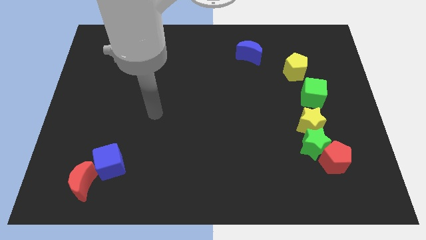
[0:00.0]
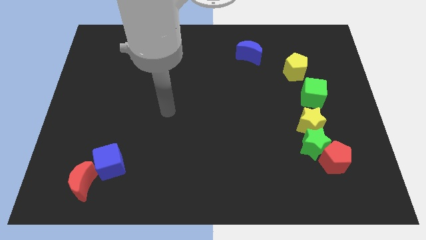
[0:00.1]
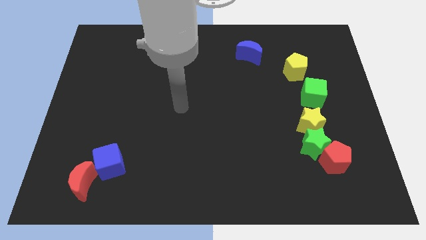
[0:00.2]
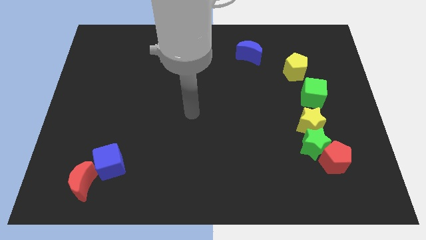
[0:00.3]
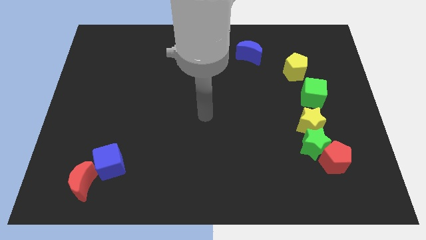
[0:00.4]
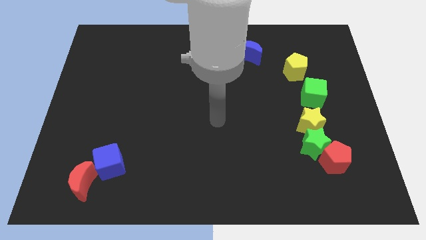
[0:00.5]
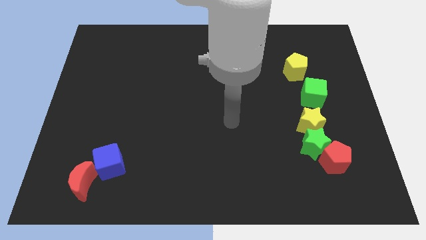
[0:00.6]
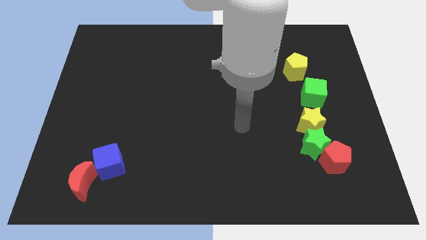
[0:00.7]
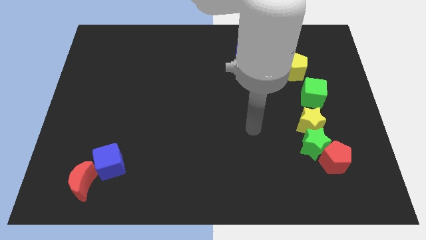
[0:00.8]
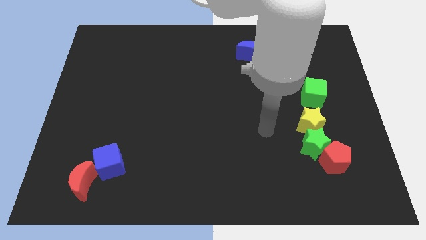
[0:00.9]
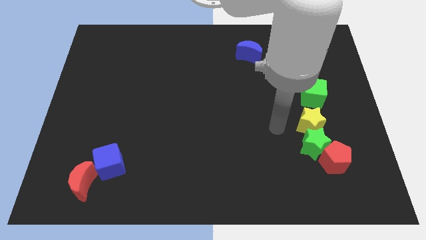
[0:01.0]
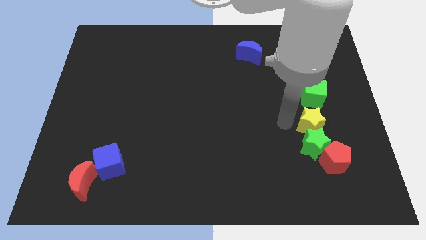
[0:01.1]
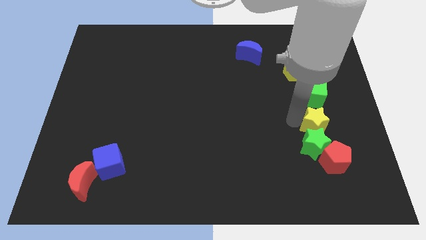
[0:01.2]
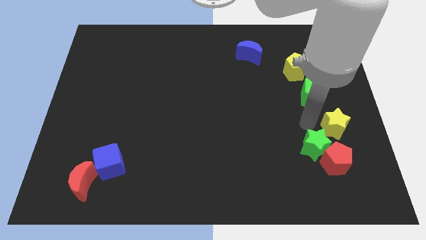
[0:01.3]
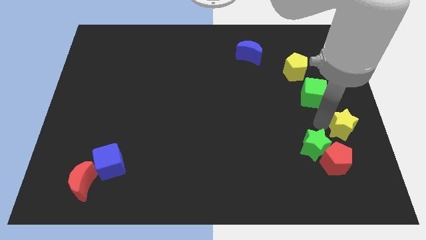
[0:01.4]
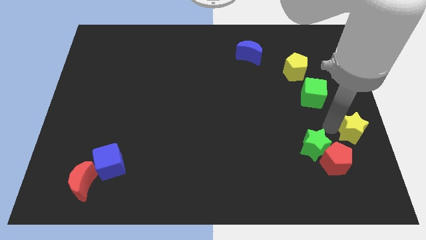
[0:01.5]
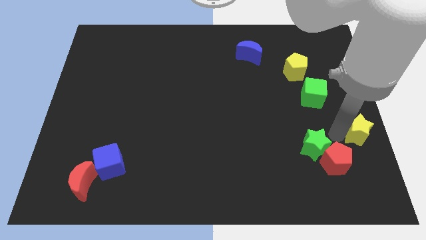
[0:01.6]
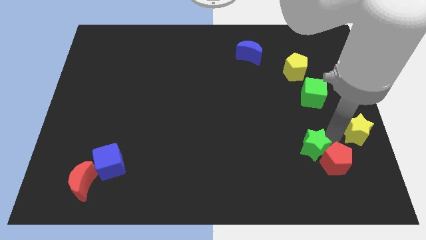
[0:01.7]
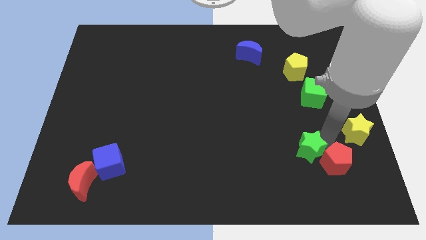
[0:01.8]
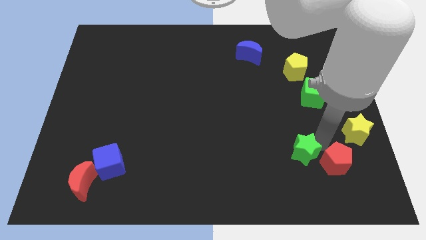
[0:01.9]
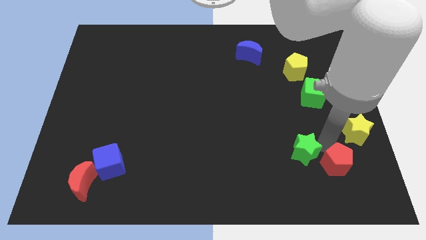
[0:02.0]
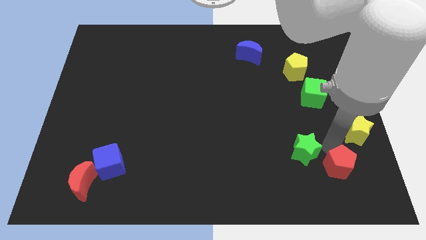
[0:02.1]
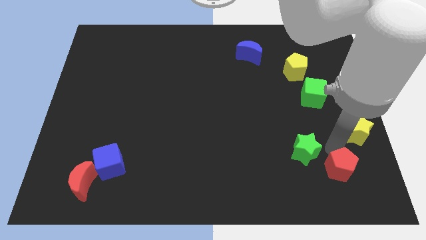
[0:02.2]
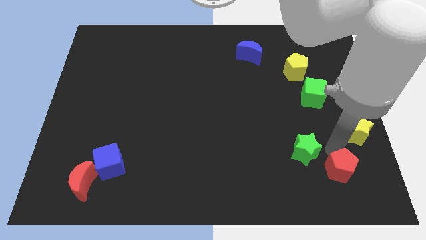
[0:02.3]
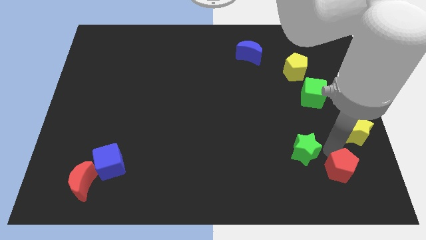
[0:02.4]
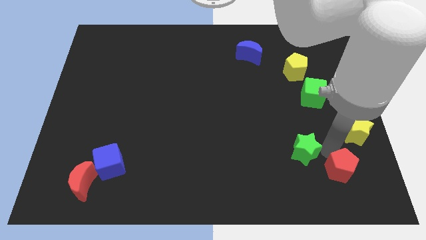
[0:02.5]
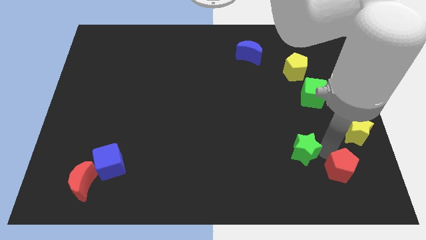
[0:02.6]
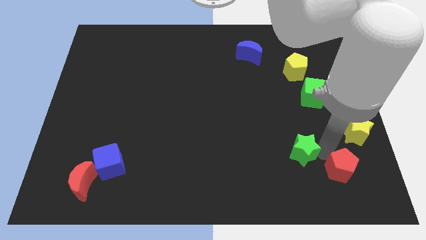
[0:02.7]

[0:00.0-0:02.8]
separate the green star from the red pentagon and yellow star

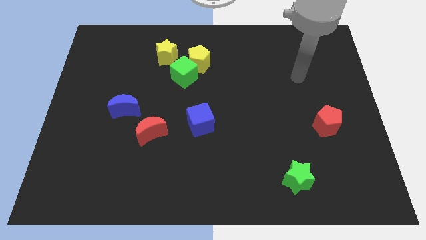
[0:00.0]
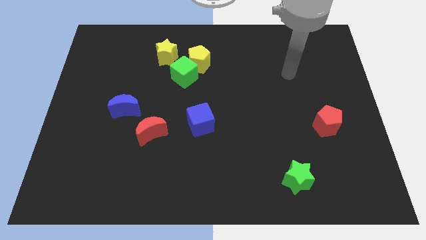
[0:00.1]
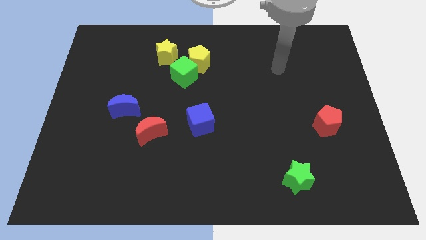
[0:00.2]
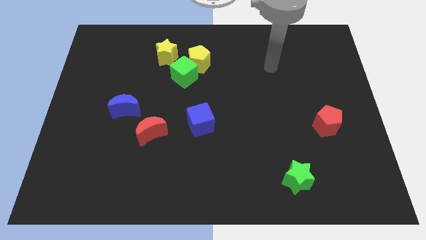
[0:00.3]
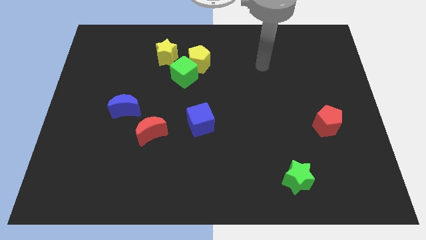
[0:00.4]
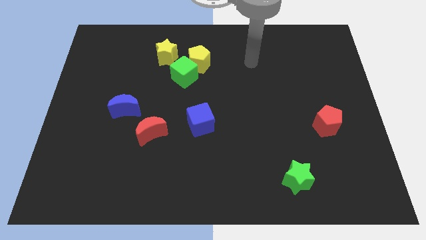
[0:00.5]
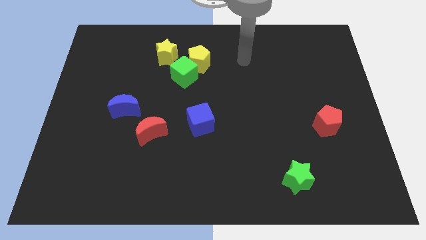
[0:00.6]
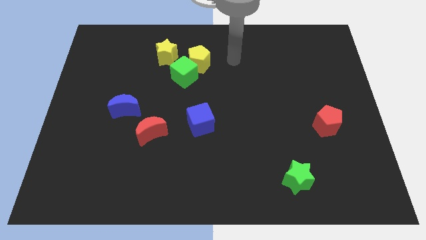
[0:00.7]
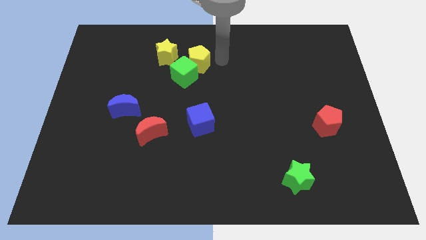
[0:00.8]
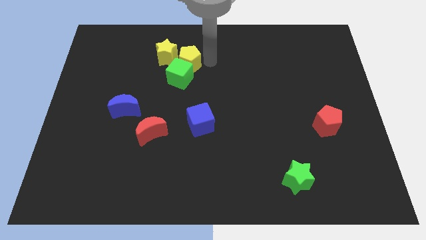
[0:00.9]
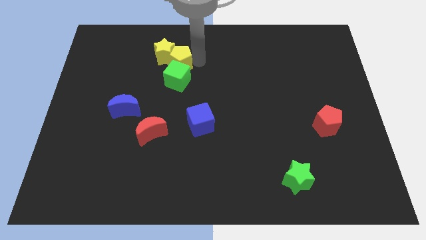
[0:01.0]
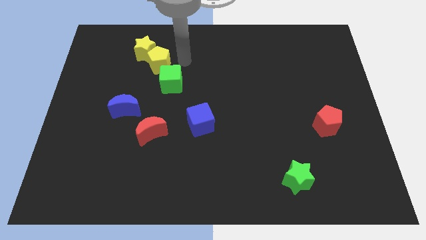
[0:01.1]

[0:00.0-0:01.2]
move the green cube away from the yellow pentagon and yellow star

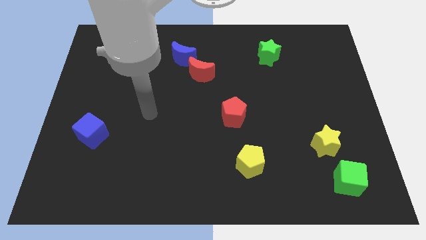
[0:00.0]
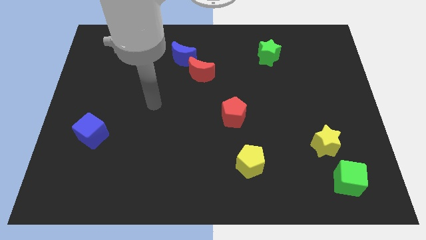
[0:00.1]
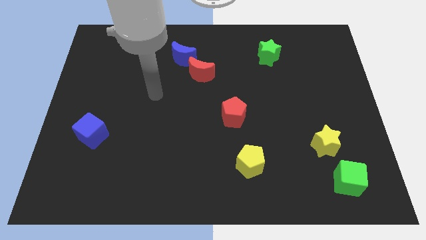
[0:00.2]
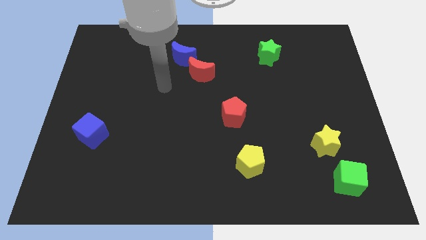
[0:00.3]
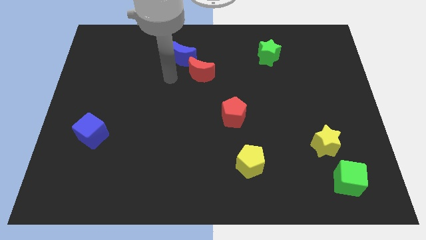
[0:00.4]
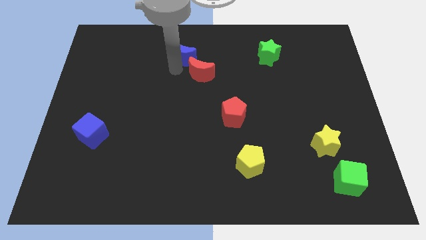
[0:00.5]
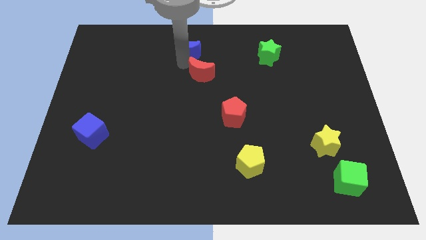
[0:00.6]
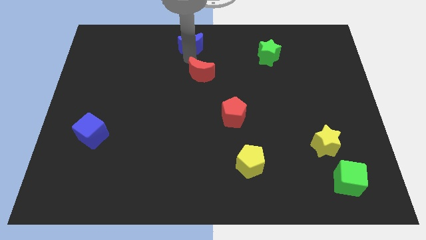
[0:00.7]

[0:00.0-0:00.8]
separate the red moon from the blue moon

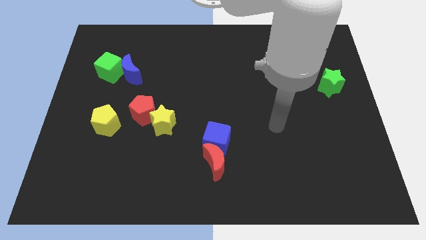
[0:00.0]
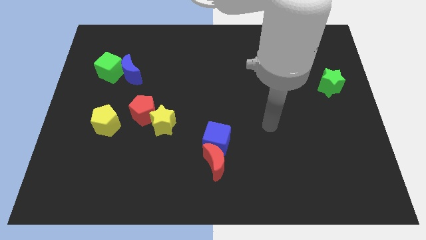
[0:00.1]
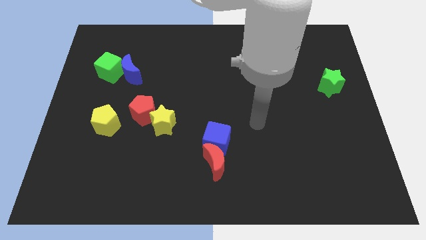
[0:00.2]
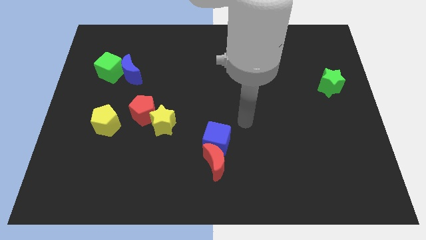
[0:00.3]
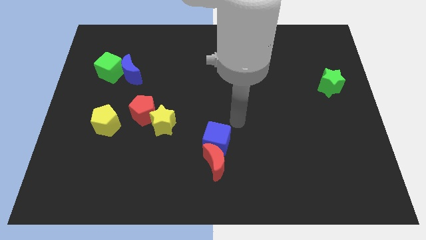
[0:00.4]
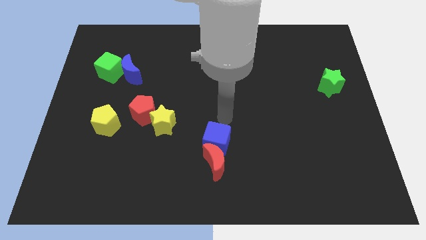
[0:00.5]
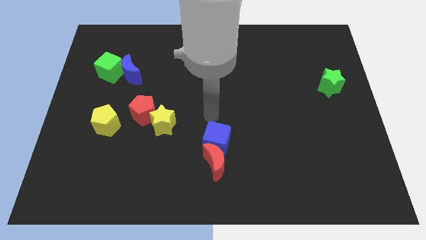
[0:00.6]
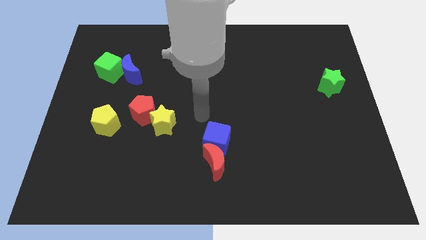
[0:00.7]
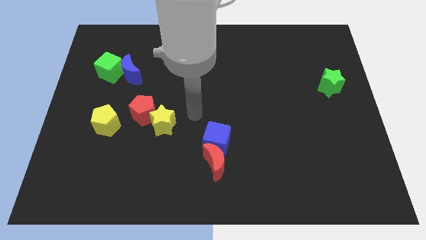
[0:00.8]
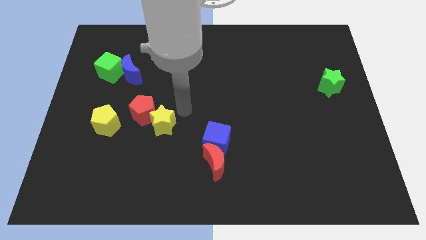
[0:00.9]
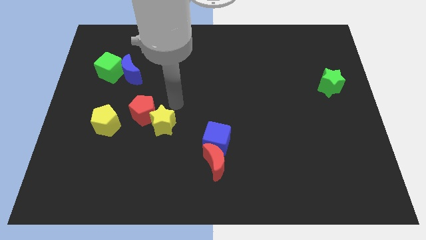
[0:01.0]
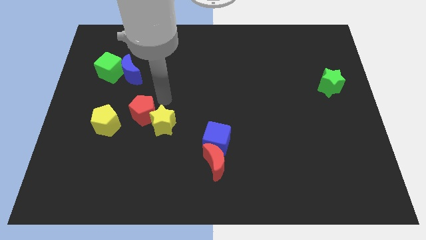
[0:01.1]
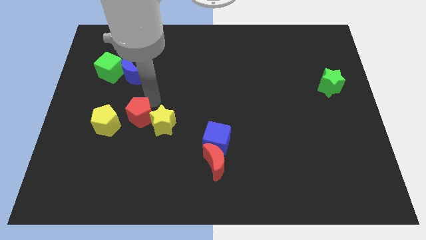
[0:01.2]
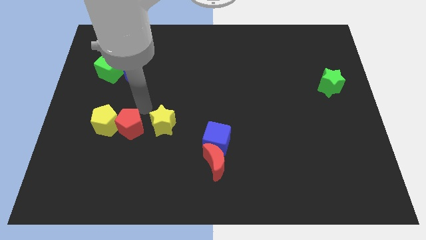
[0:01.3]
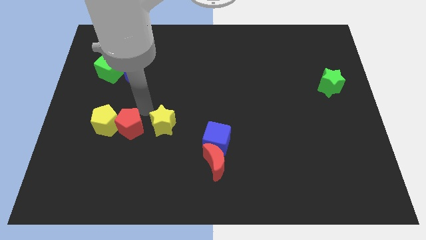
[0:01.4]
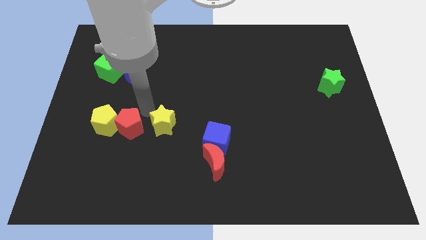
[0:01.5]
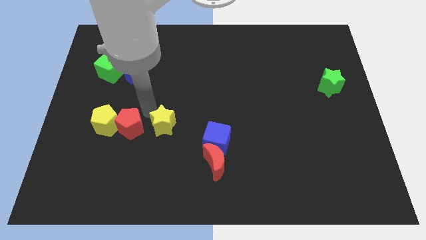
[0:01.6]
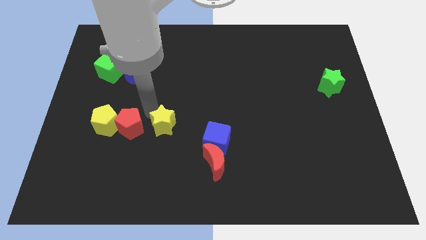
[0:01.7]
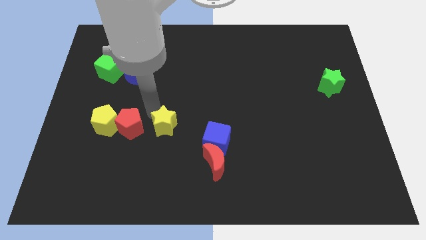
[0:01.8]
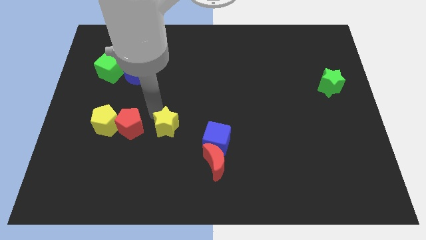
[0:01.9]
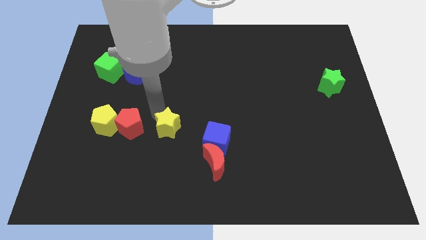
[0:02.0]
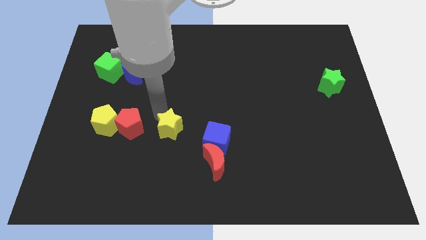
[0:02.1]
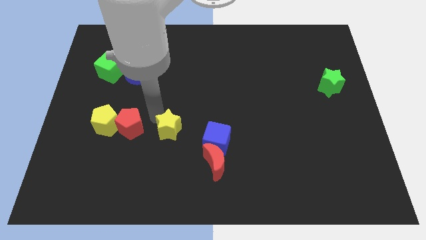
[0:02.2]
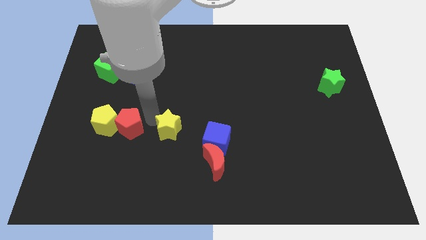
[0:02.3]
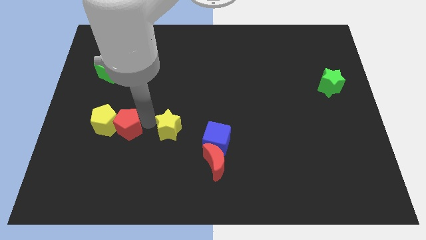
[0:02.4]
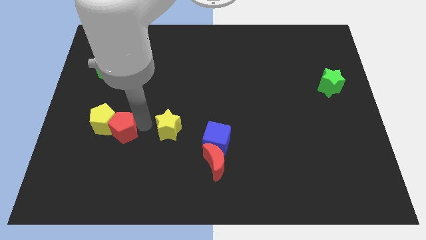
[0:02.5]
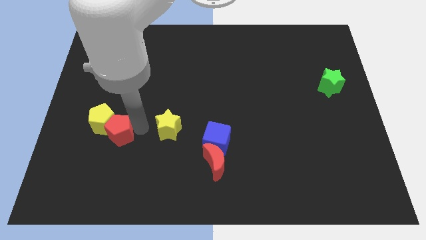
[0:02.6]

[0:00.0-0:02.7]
move the yellow star away from the red pentagon

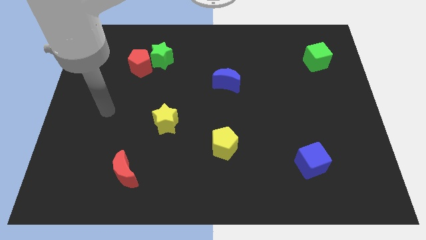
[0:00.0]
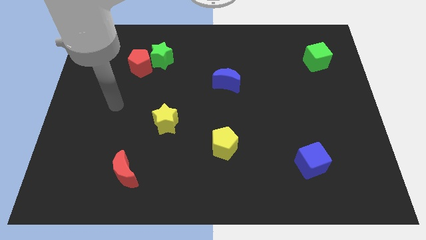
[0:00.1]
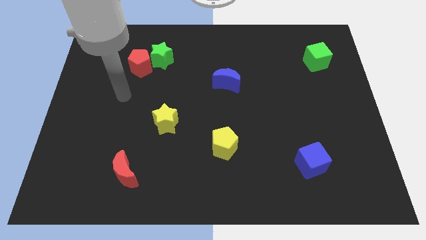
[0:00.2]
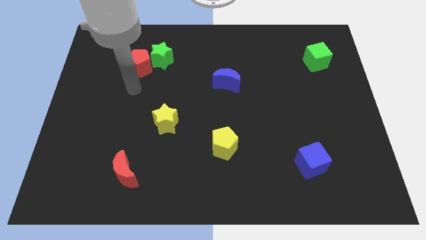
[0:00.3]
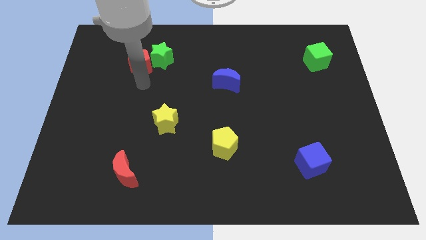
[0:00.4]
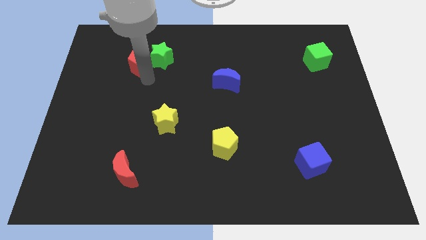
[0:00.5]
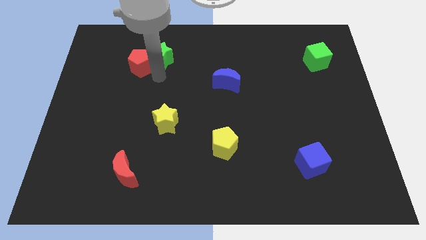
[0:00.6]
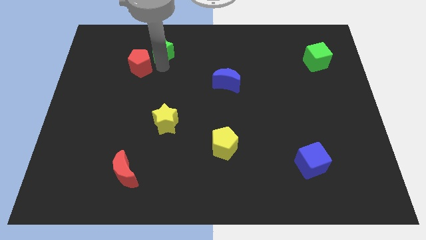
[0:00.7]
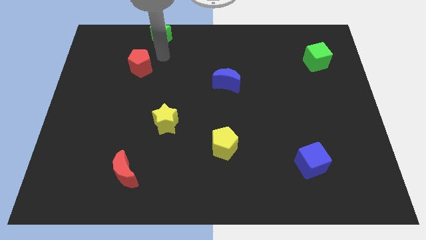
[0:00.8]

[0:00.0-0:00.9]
pull the red pentagon apart from the green star

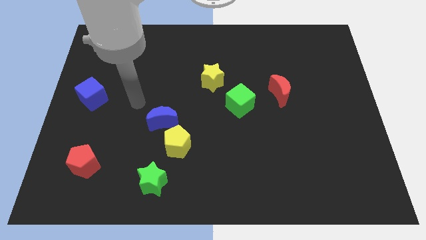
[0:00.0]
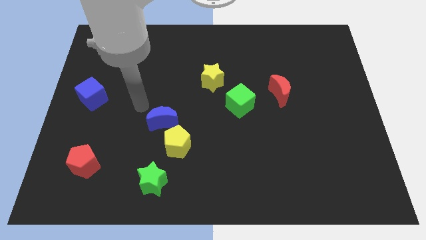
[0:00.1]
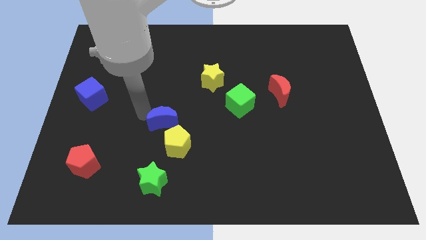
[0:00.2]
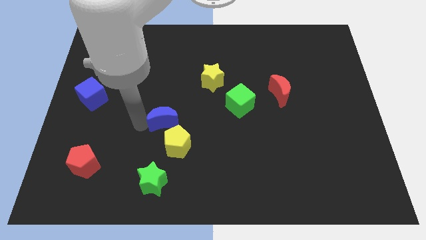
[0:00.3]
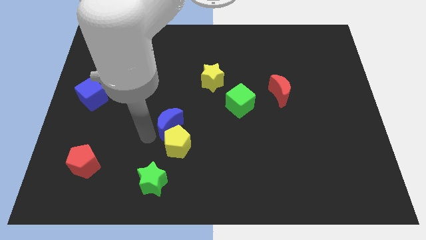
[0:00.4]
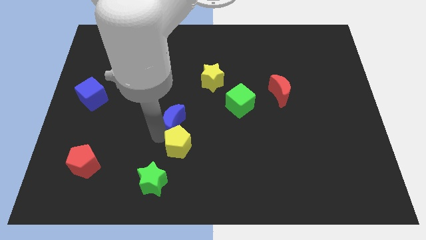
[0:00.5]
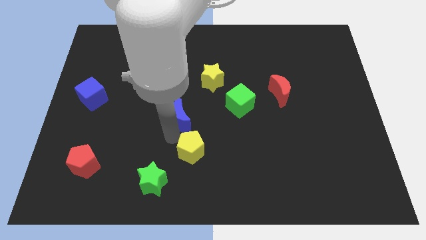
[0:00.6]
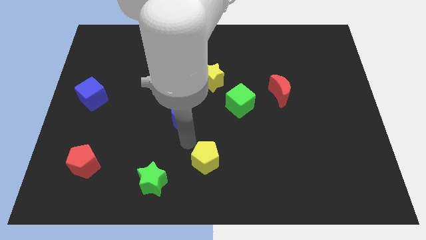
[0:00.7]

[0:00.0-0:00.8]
pull the blue moon apart from the yellow pentagon

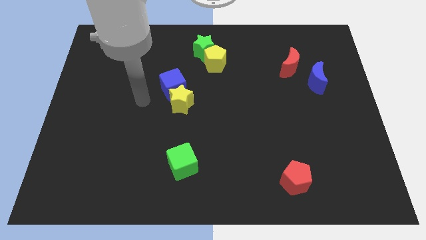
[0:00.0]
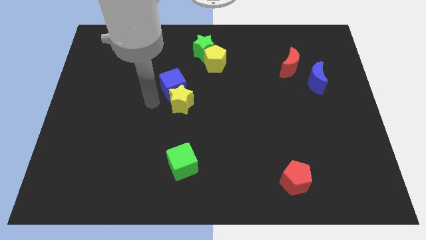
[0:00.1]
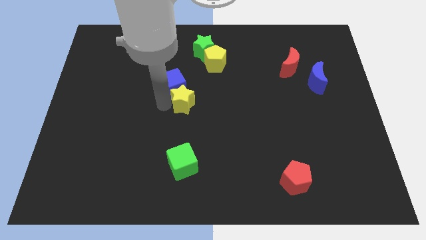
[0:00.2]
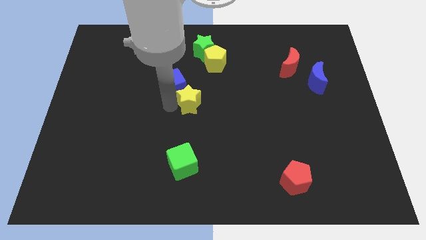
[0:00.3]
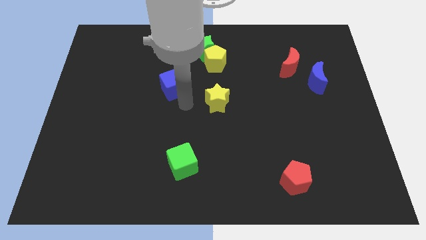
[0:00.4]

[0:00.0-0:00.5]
separate the blue cube from the yellow star
